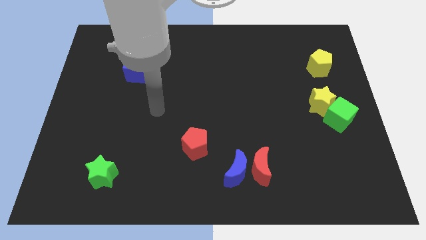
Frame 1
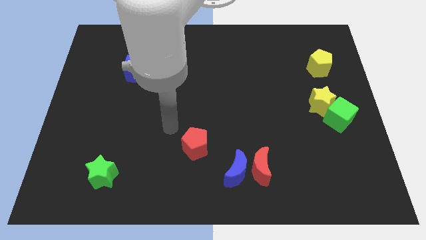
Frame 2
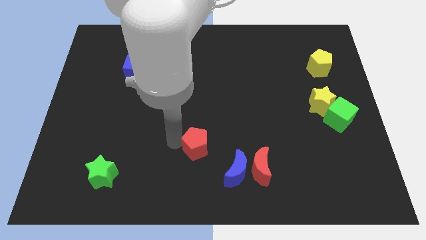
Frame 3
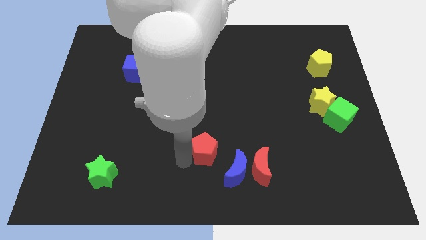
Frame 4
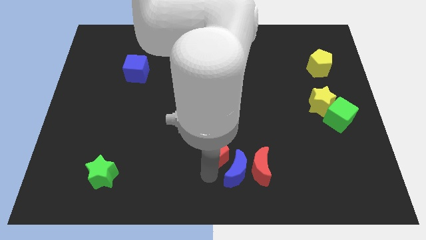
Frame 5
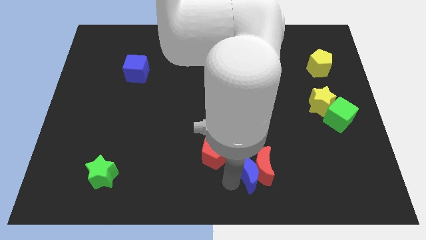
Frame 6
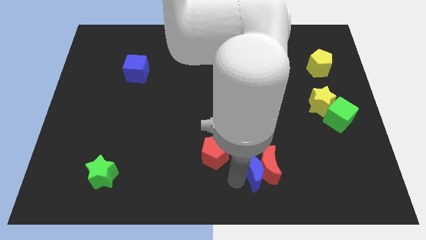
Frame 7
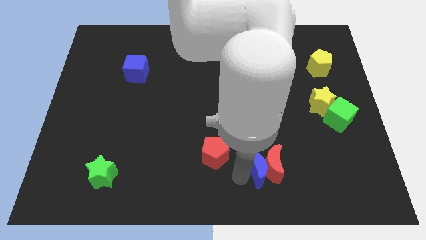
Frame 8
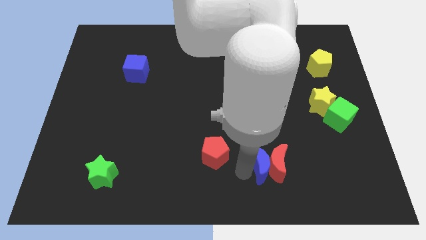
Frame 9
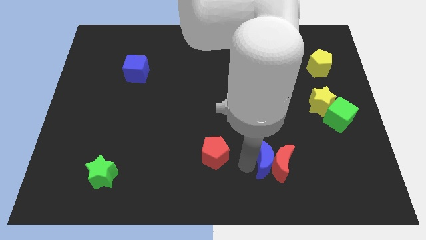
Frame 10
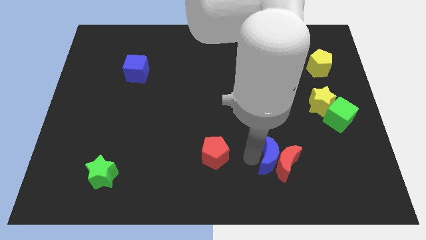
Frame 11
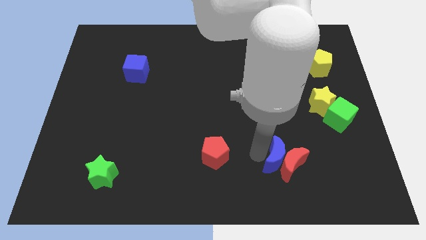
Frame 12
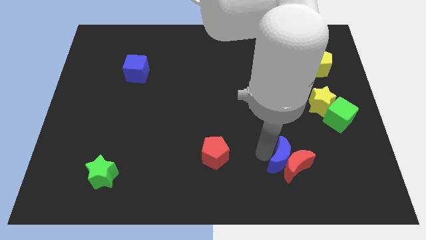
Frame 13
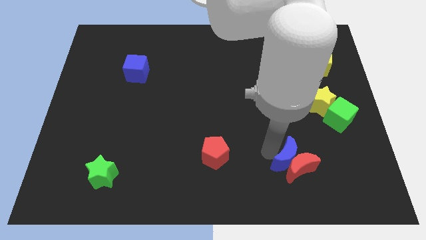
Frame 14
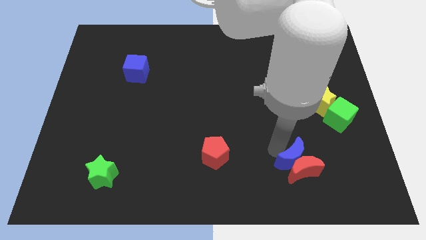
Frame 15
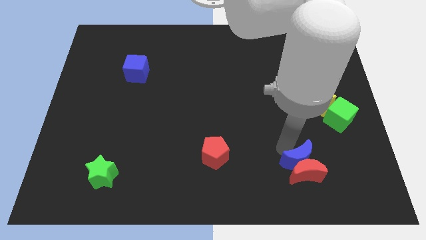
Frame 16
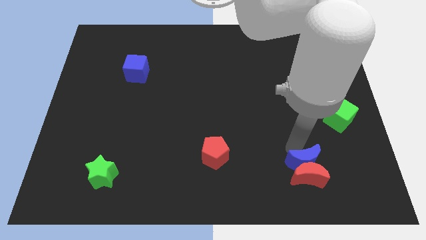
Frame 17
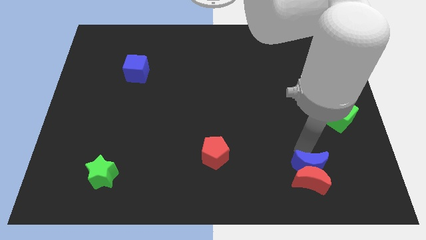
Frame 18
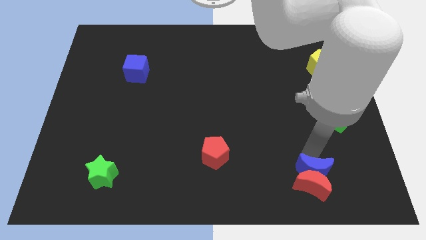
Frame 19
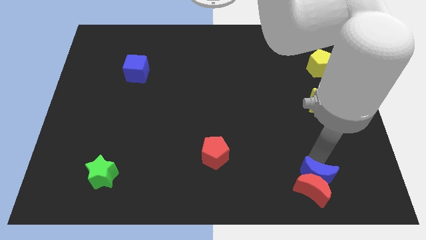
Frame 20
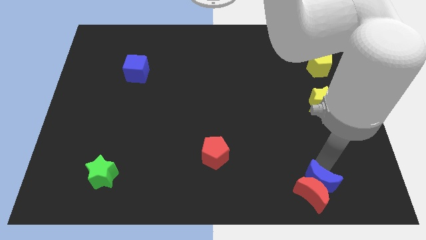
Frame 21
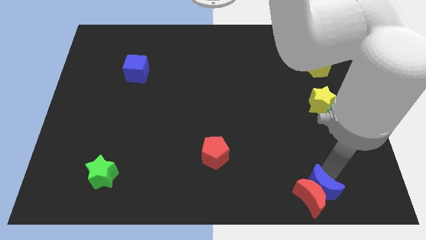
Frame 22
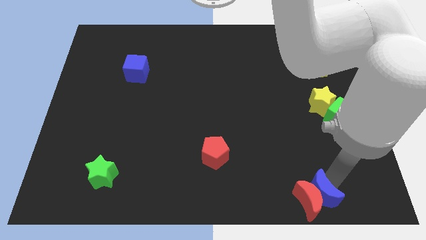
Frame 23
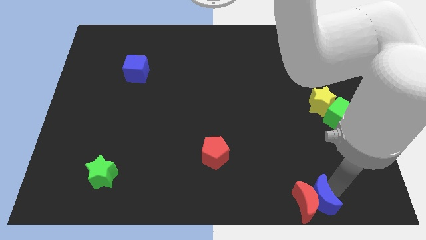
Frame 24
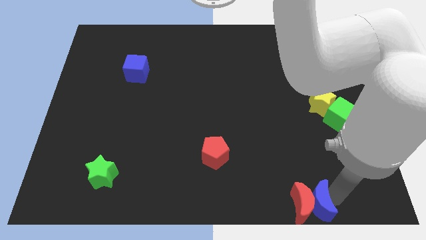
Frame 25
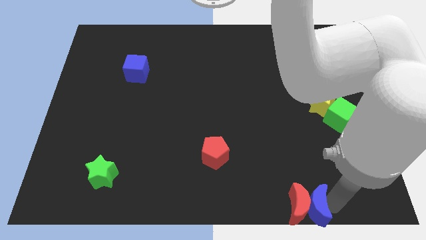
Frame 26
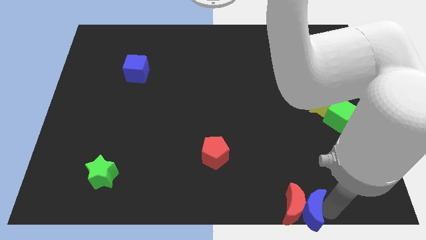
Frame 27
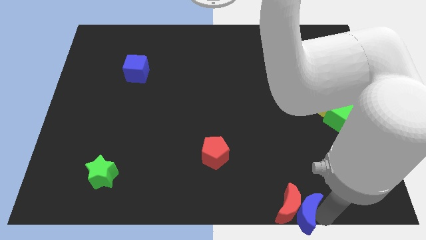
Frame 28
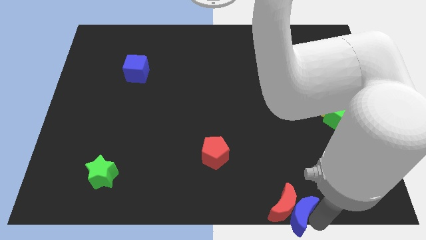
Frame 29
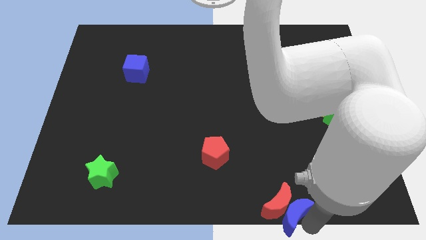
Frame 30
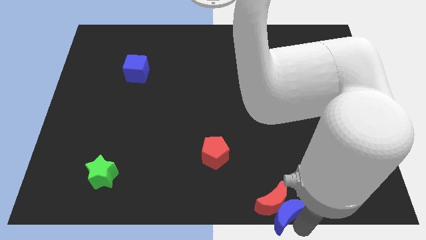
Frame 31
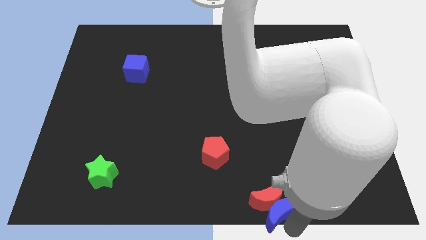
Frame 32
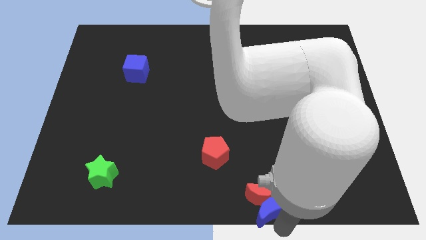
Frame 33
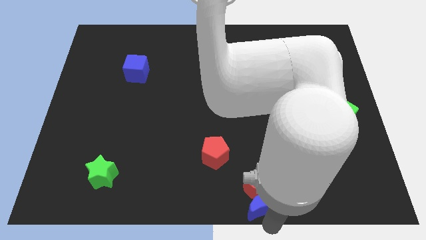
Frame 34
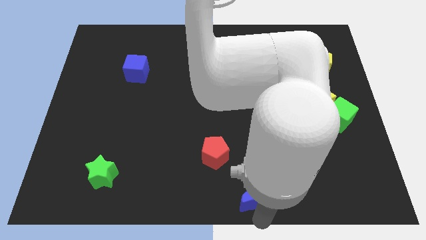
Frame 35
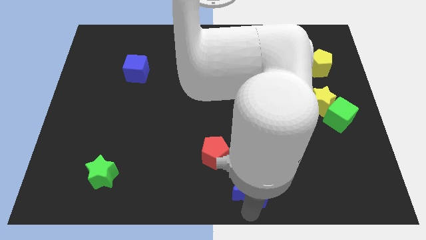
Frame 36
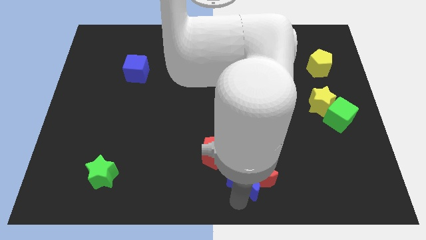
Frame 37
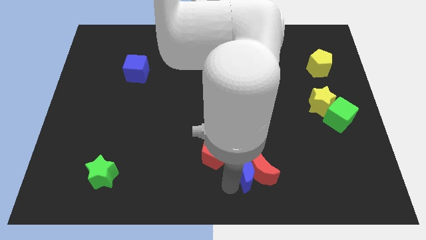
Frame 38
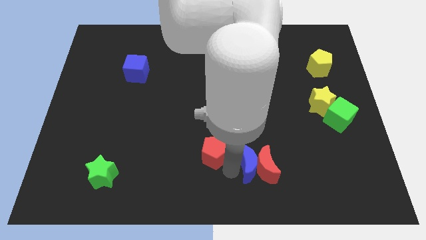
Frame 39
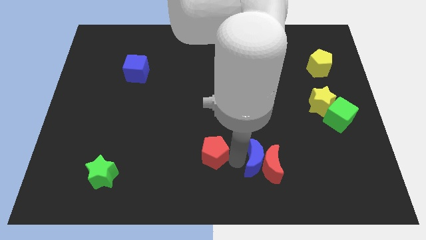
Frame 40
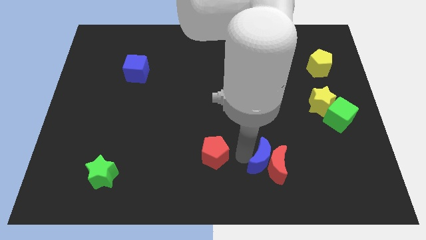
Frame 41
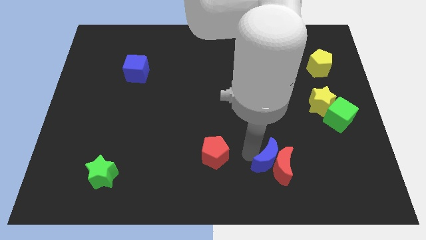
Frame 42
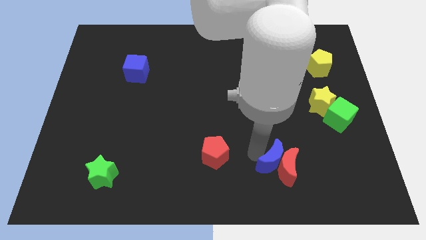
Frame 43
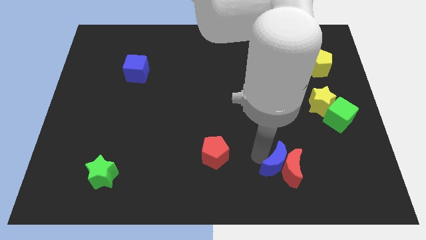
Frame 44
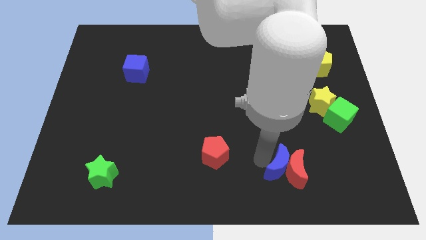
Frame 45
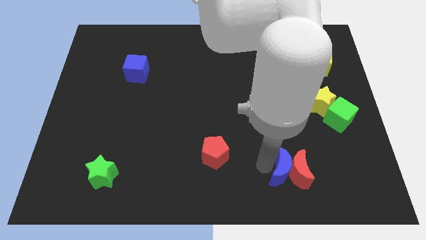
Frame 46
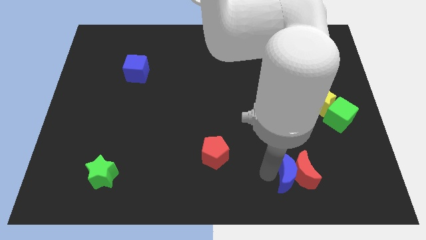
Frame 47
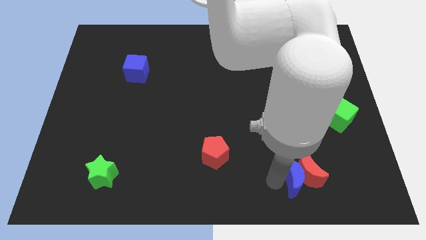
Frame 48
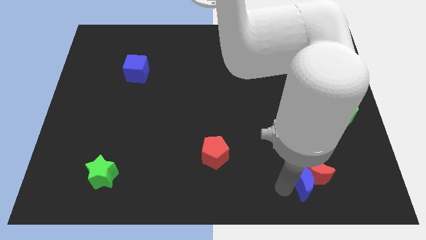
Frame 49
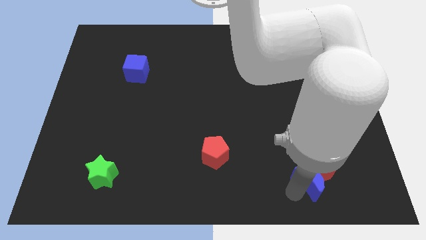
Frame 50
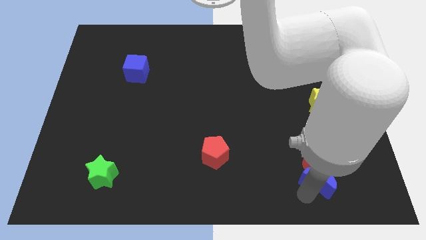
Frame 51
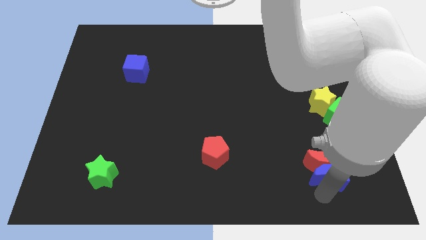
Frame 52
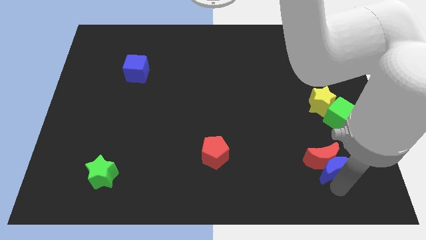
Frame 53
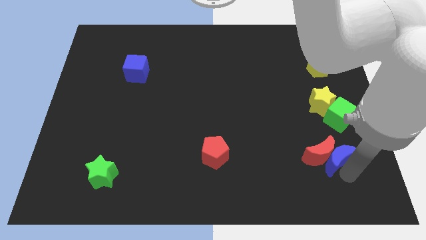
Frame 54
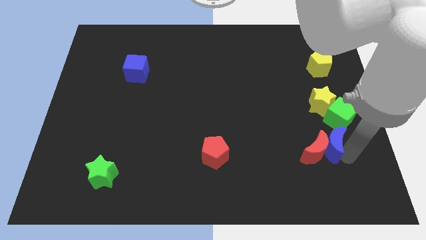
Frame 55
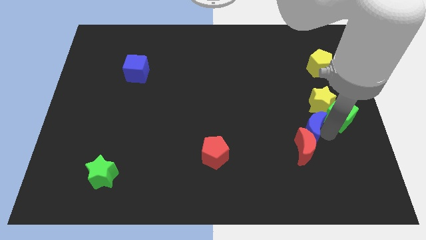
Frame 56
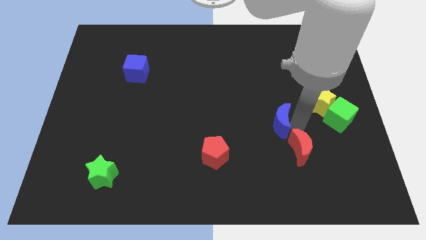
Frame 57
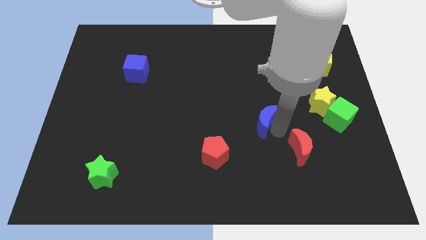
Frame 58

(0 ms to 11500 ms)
separate the red moon from the blue moon

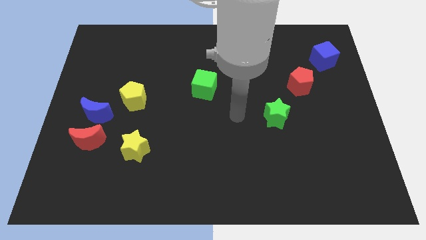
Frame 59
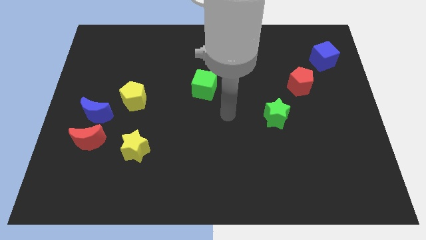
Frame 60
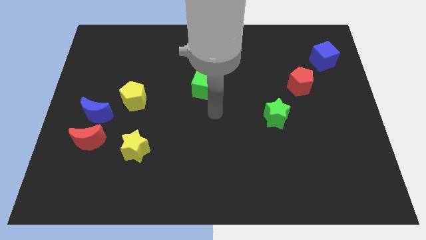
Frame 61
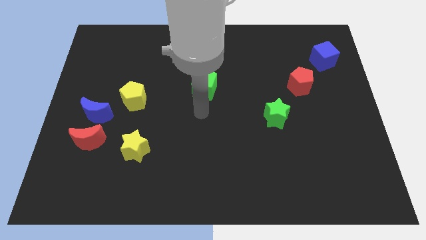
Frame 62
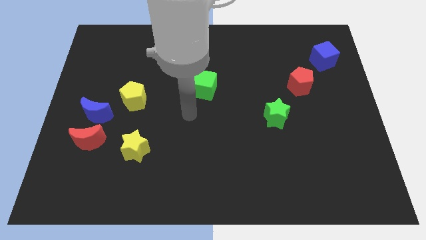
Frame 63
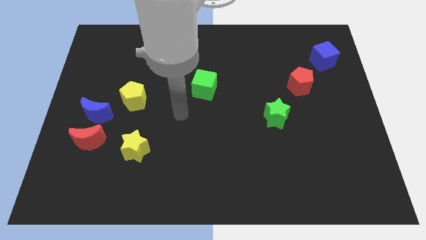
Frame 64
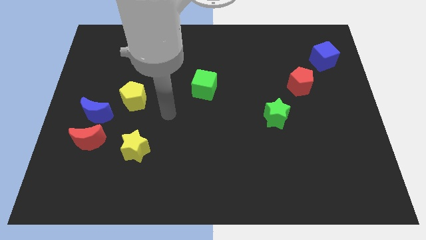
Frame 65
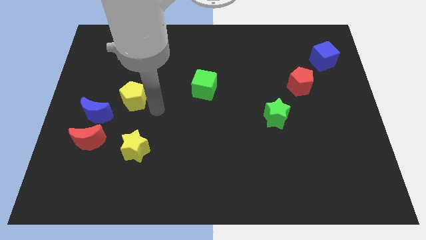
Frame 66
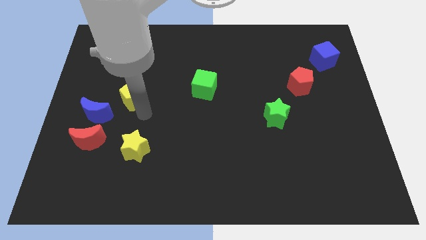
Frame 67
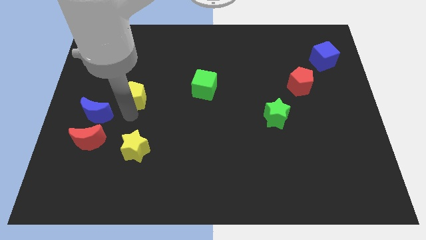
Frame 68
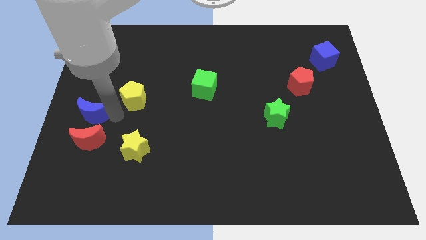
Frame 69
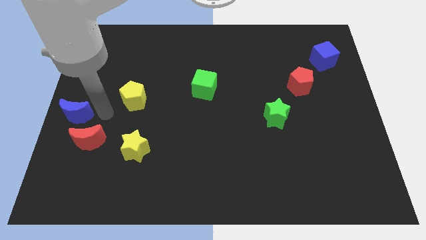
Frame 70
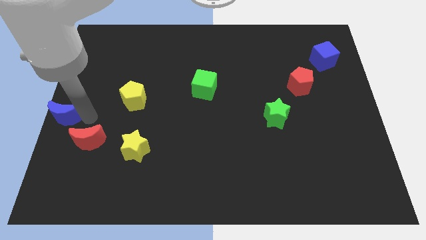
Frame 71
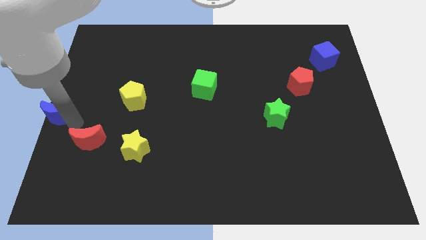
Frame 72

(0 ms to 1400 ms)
move the red moon away from the blue moon

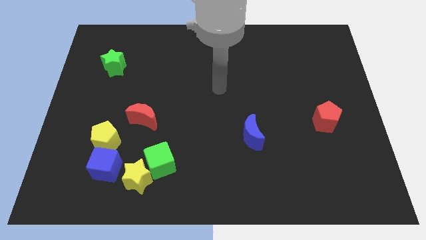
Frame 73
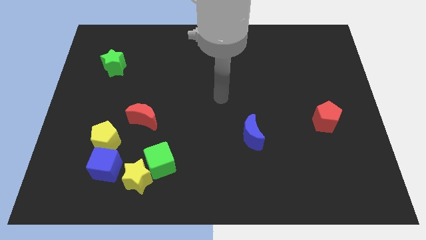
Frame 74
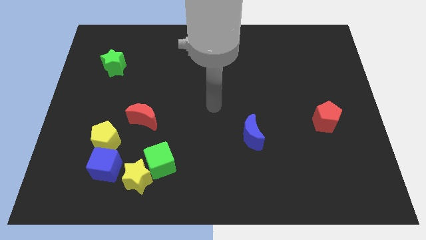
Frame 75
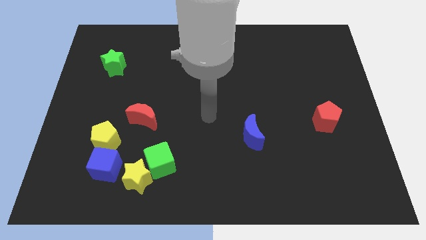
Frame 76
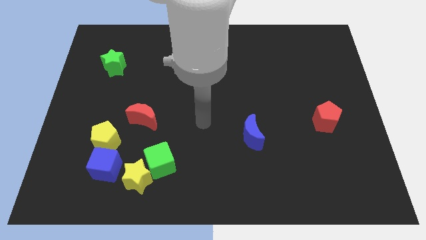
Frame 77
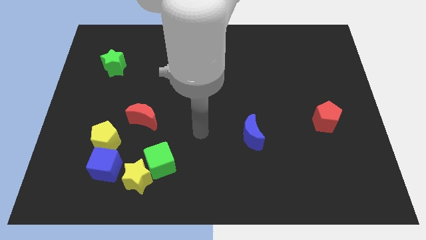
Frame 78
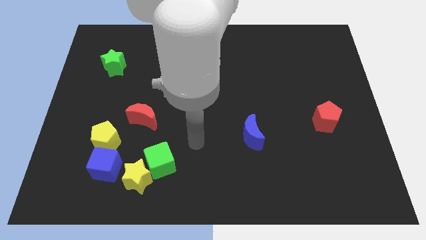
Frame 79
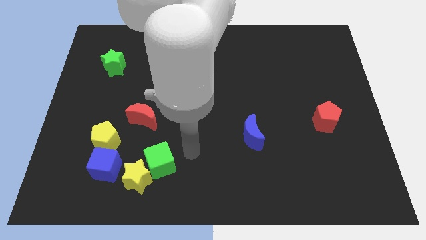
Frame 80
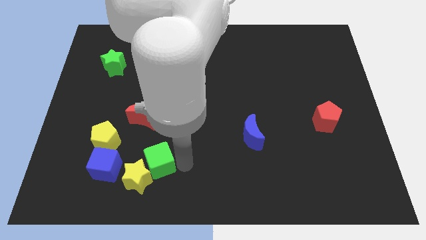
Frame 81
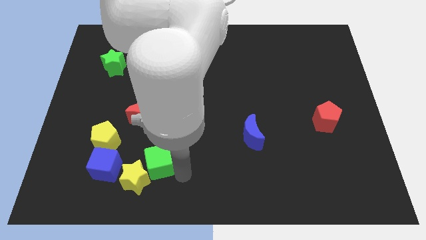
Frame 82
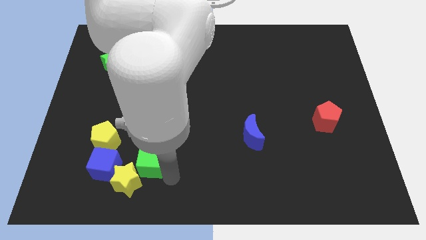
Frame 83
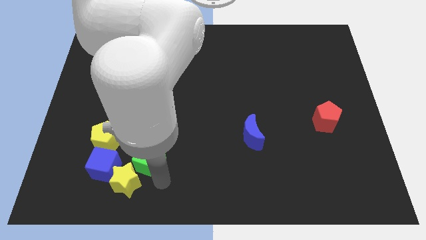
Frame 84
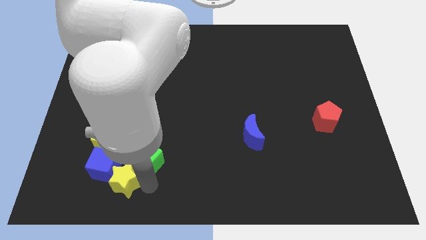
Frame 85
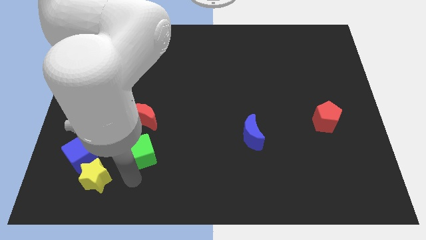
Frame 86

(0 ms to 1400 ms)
separate the green cube from the yellow star

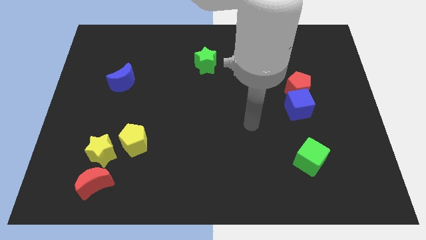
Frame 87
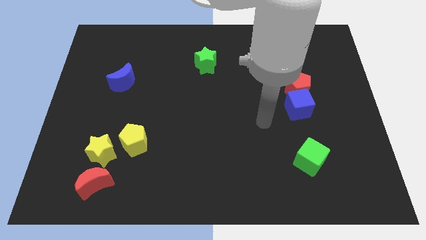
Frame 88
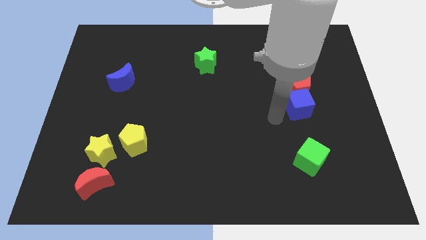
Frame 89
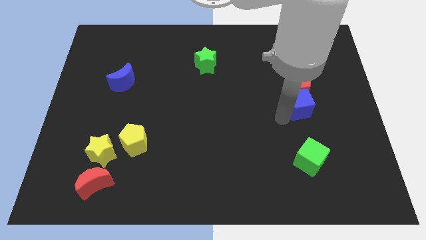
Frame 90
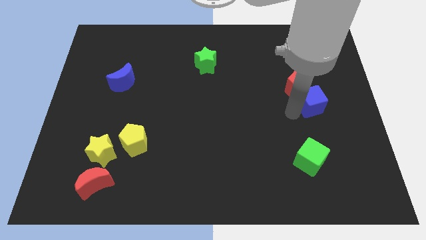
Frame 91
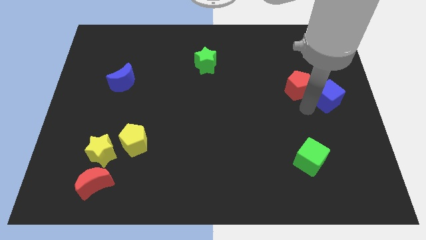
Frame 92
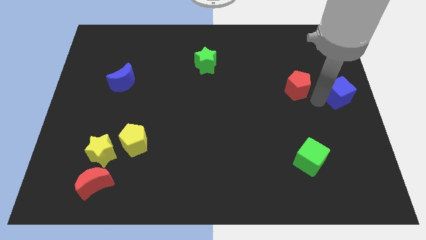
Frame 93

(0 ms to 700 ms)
pull the red pentagon apart from the blue cube

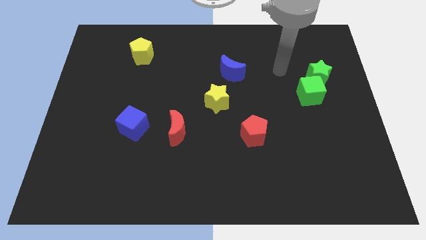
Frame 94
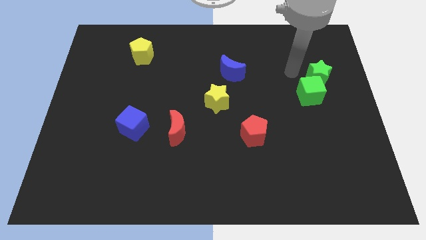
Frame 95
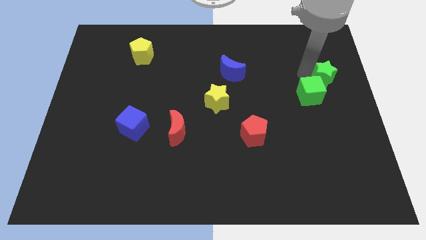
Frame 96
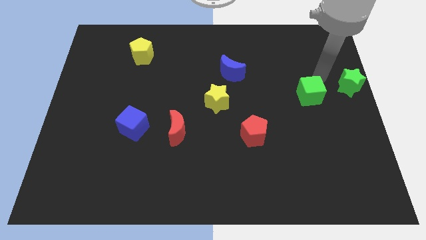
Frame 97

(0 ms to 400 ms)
pull the green cube apart from the green star
